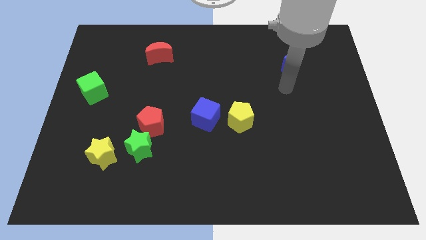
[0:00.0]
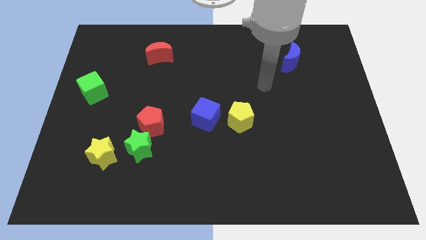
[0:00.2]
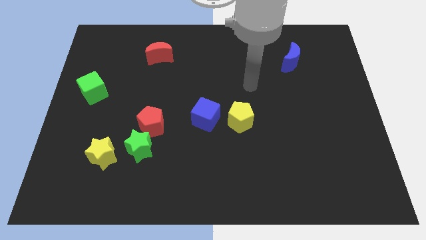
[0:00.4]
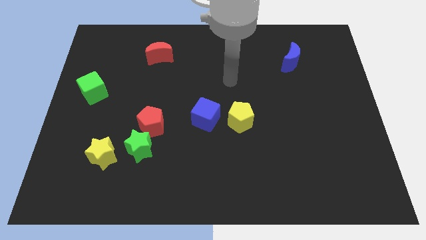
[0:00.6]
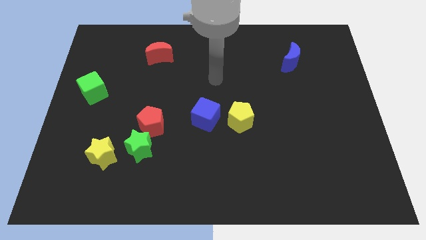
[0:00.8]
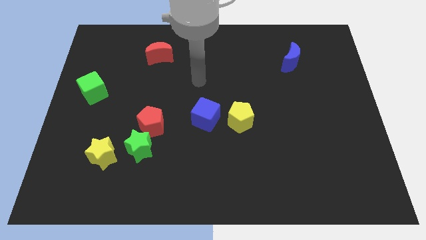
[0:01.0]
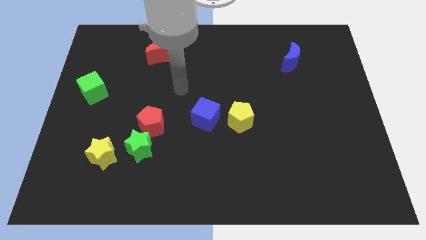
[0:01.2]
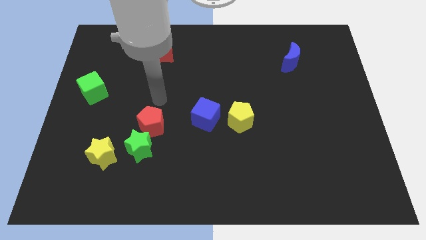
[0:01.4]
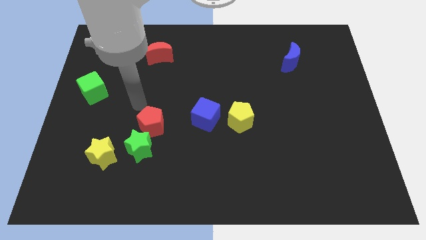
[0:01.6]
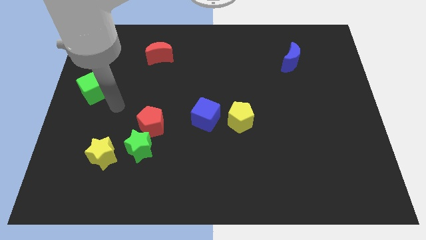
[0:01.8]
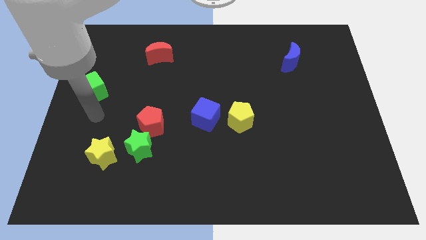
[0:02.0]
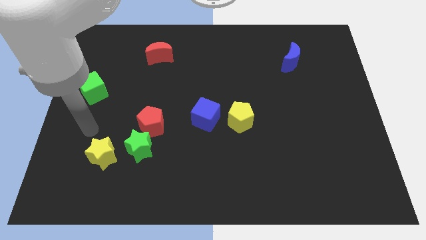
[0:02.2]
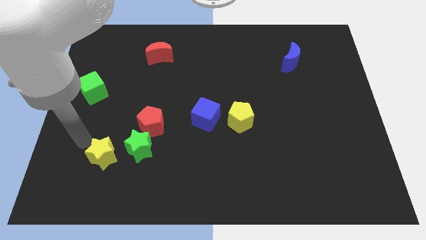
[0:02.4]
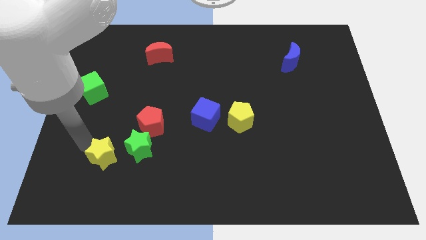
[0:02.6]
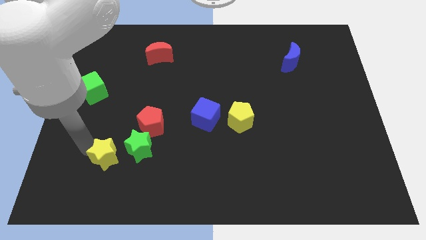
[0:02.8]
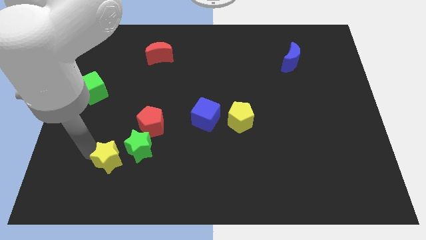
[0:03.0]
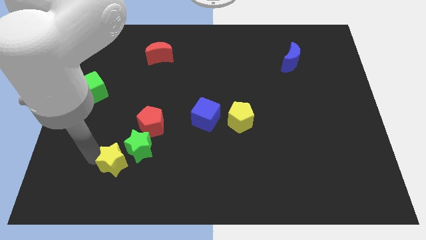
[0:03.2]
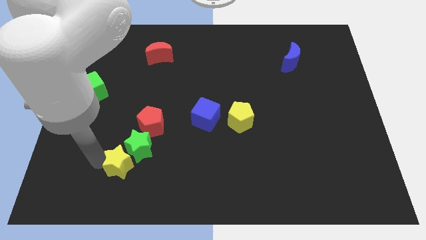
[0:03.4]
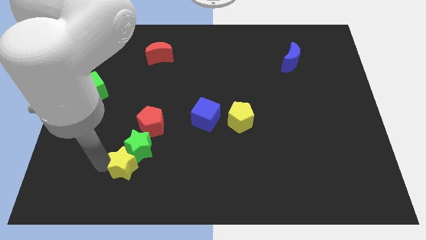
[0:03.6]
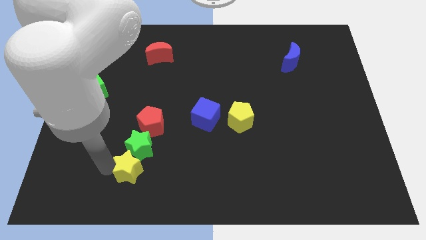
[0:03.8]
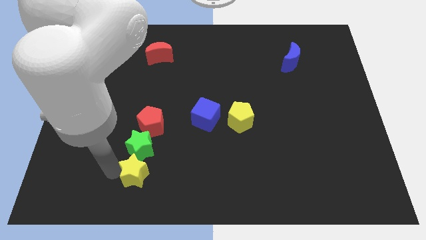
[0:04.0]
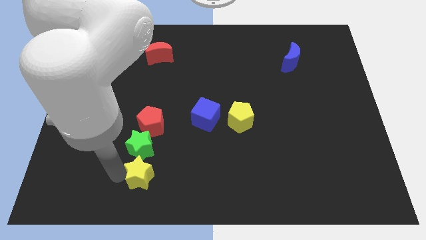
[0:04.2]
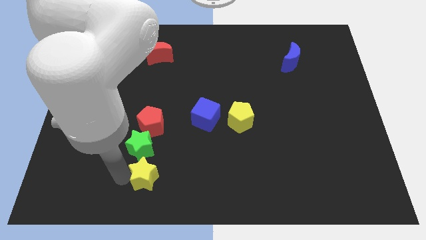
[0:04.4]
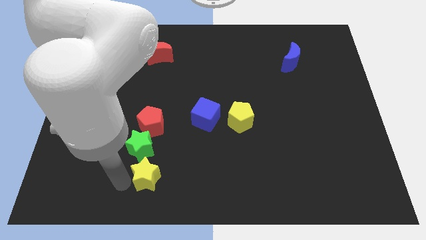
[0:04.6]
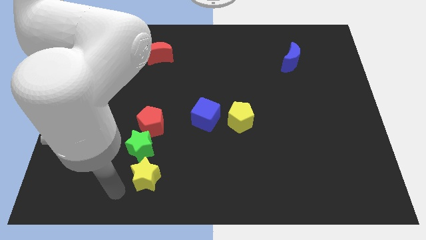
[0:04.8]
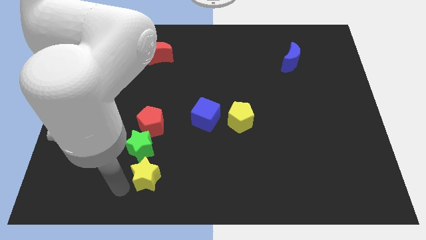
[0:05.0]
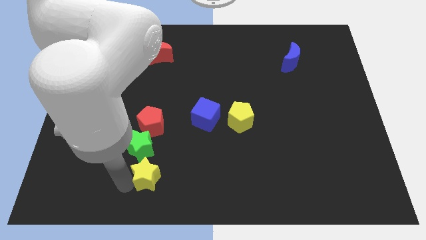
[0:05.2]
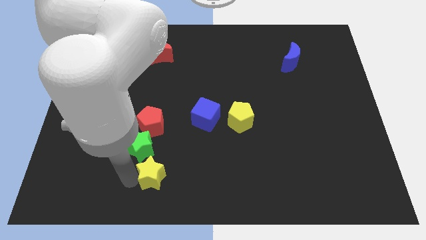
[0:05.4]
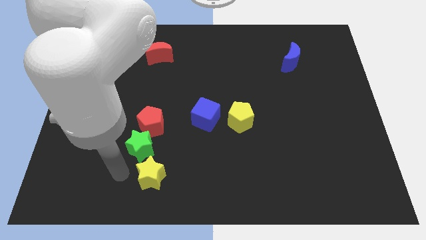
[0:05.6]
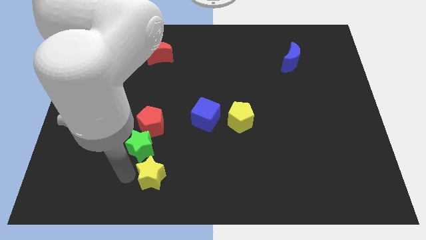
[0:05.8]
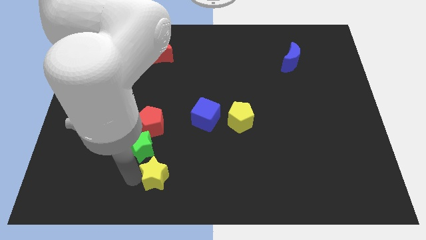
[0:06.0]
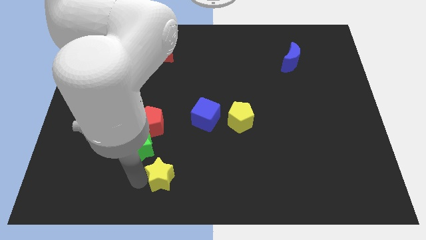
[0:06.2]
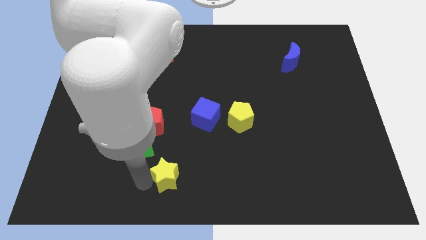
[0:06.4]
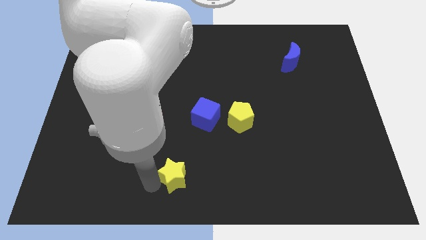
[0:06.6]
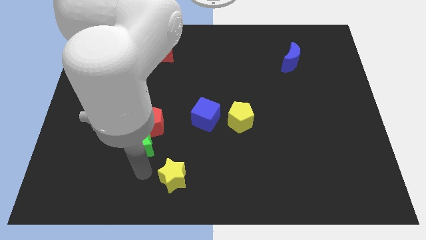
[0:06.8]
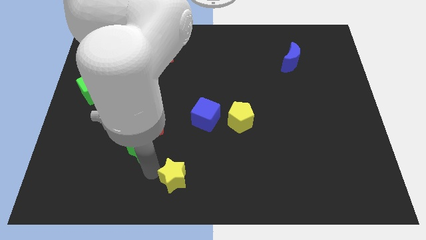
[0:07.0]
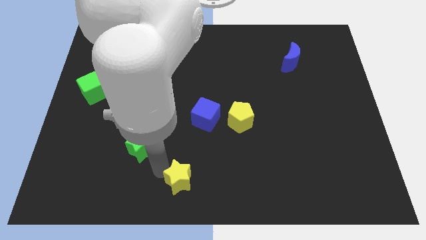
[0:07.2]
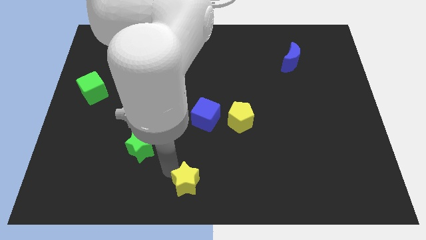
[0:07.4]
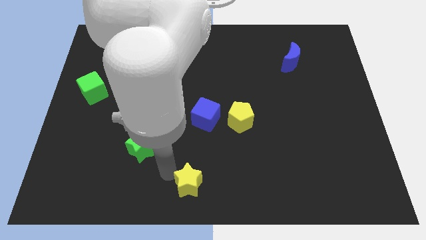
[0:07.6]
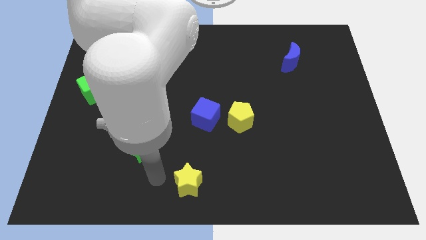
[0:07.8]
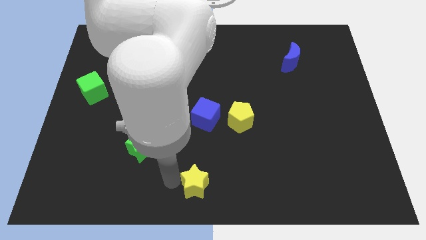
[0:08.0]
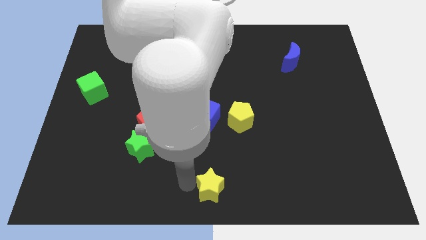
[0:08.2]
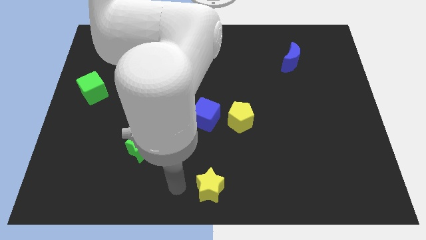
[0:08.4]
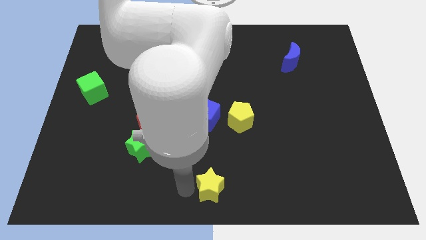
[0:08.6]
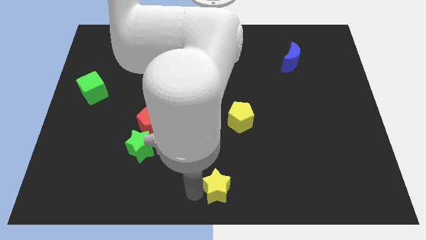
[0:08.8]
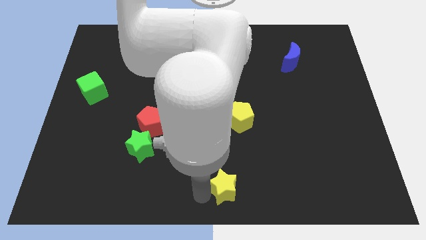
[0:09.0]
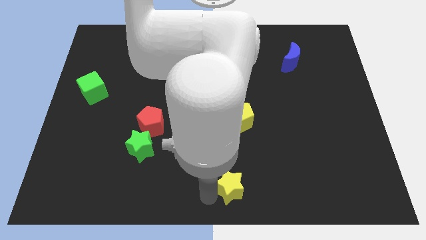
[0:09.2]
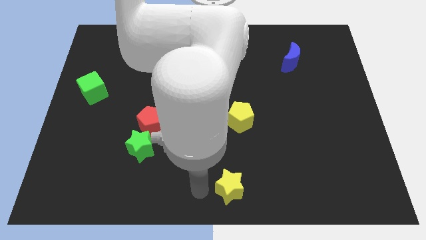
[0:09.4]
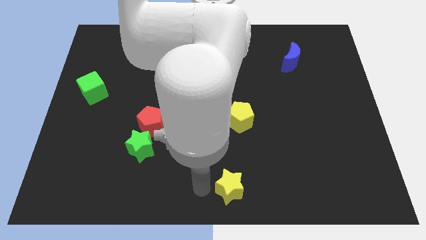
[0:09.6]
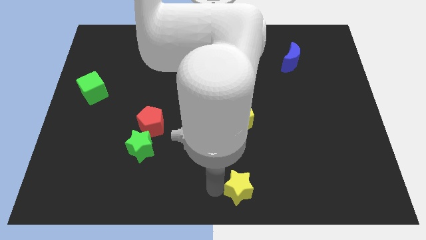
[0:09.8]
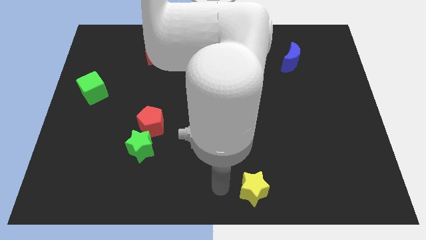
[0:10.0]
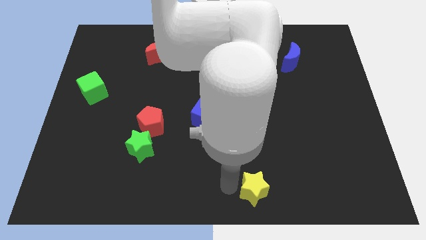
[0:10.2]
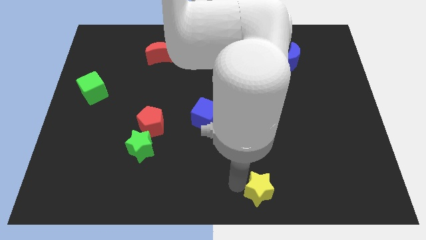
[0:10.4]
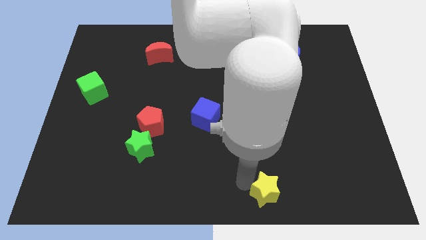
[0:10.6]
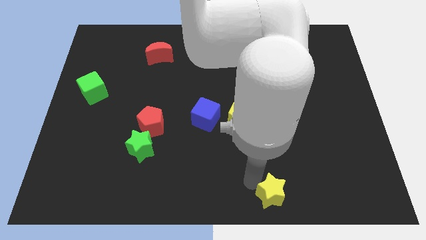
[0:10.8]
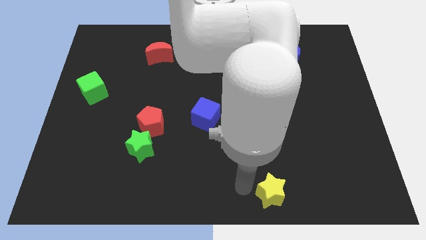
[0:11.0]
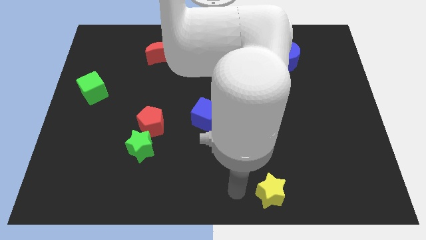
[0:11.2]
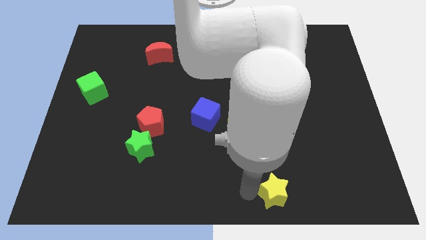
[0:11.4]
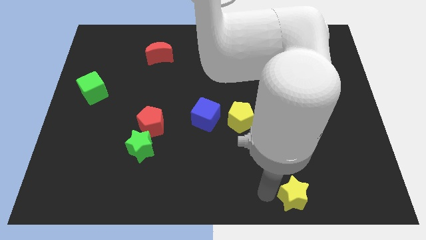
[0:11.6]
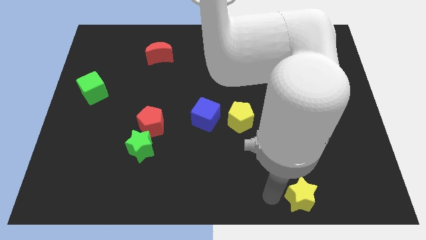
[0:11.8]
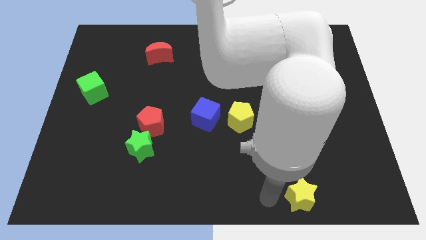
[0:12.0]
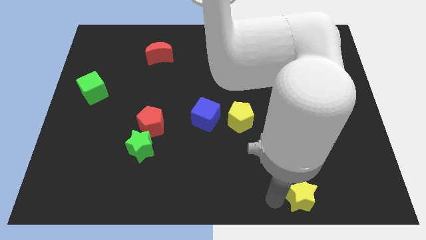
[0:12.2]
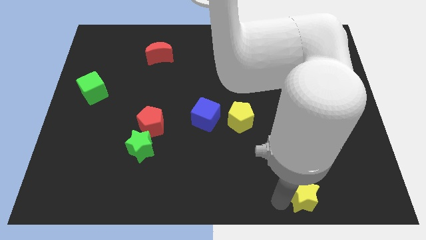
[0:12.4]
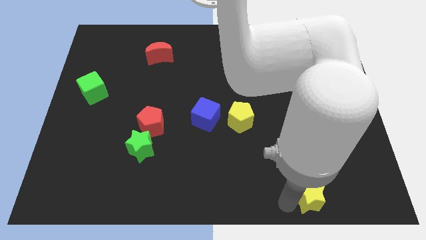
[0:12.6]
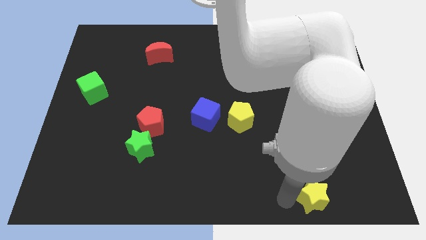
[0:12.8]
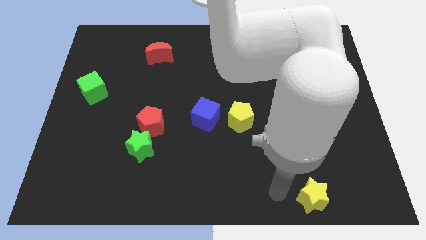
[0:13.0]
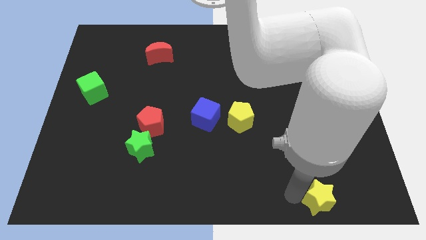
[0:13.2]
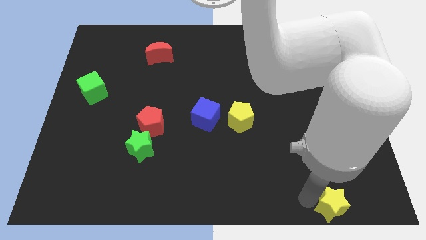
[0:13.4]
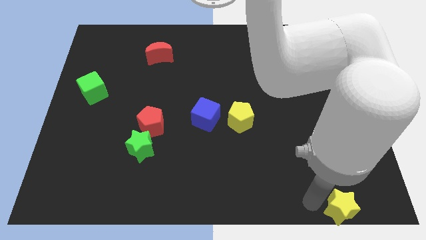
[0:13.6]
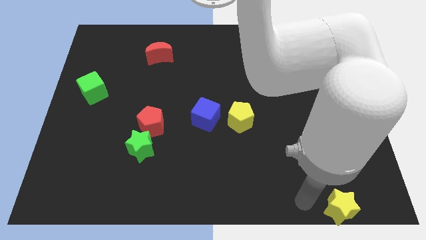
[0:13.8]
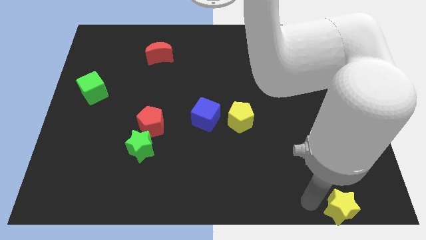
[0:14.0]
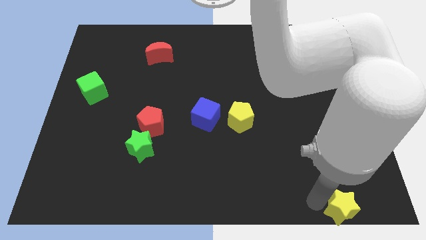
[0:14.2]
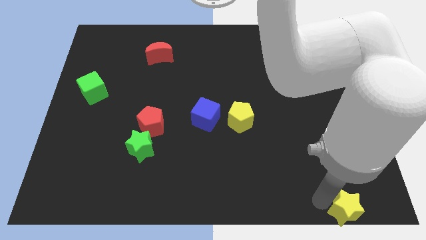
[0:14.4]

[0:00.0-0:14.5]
push the yellow star to the bottom right
